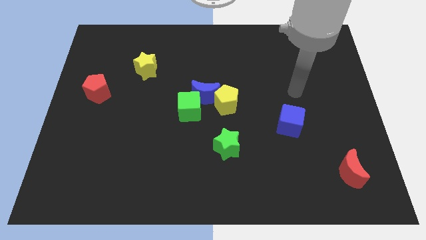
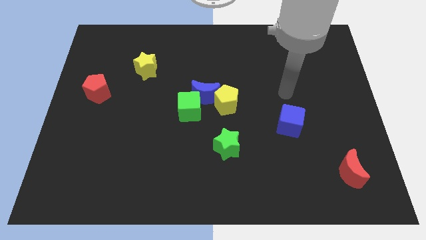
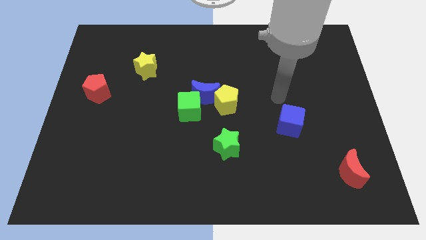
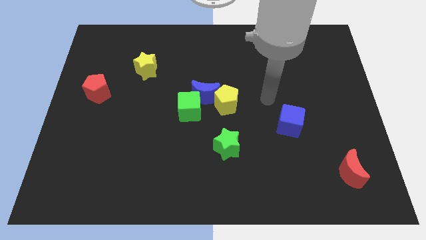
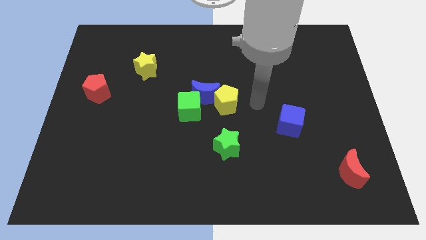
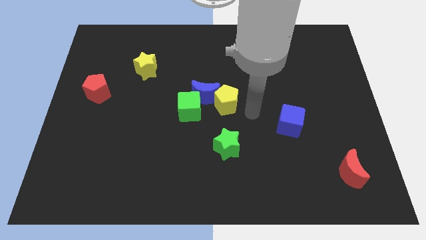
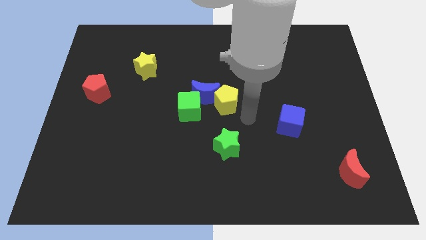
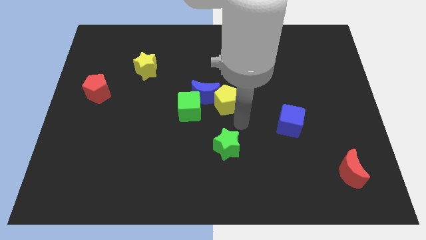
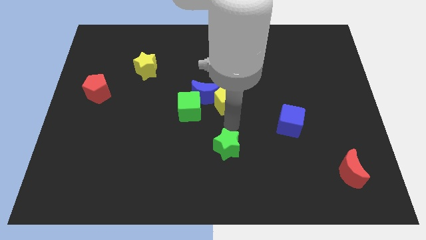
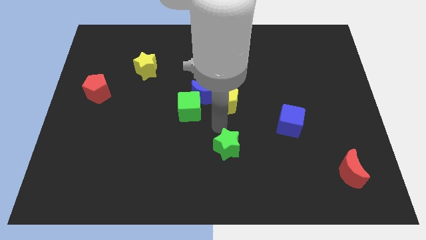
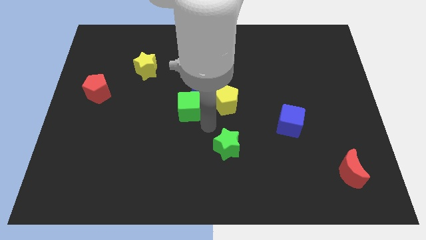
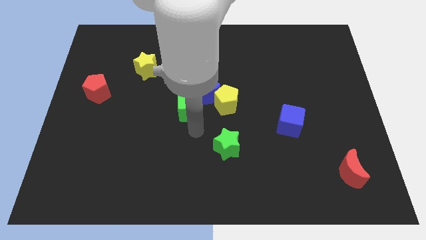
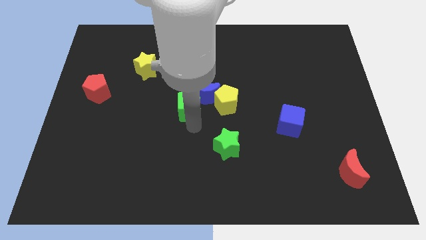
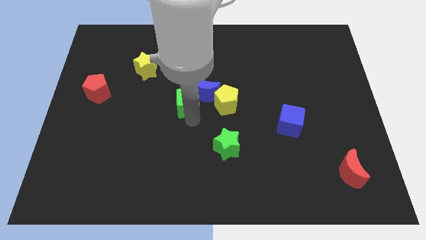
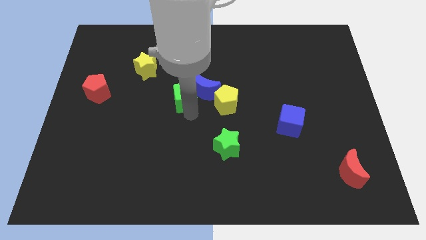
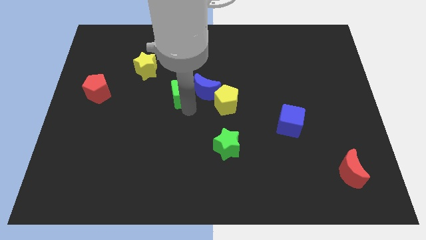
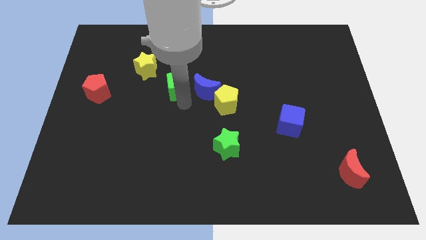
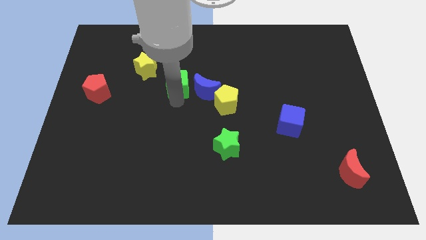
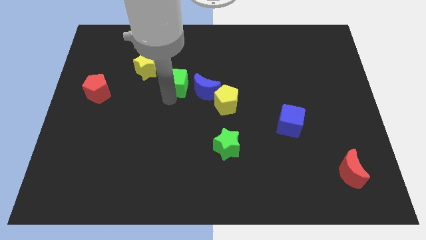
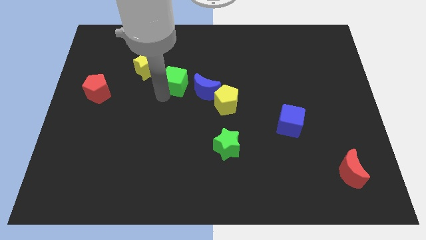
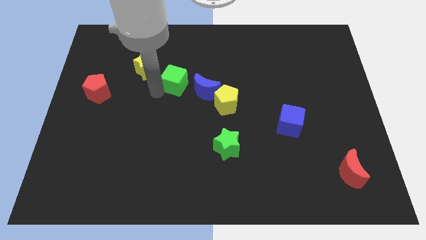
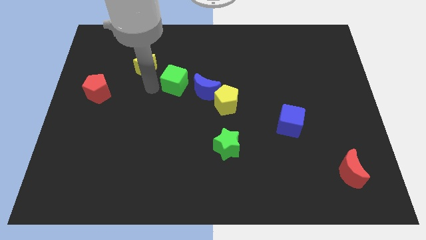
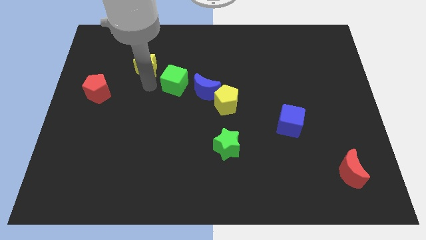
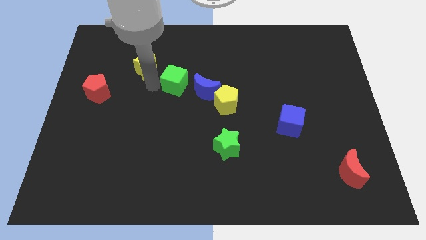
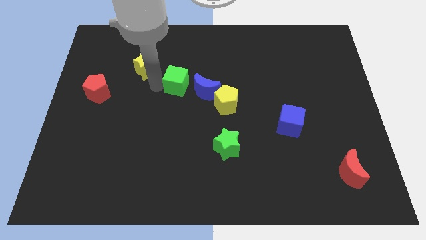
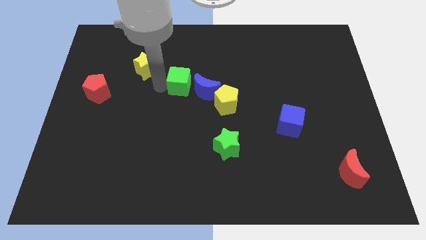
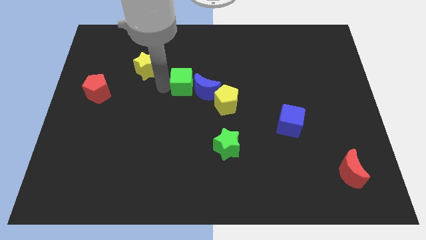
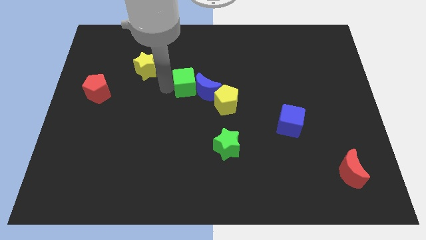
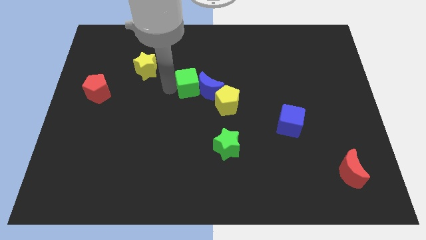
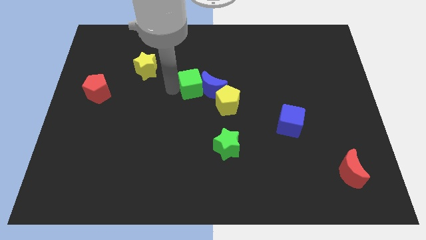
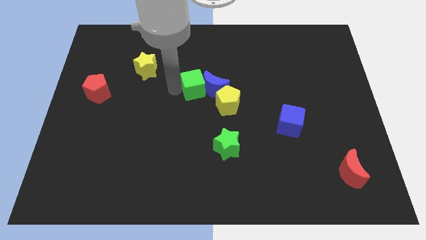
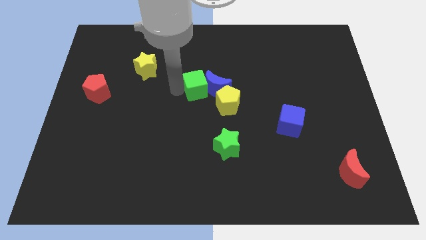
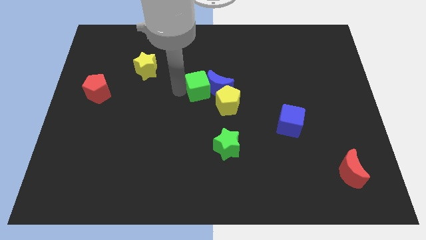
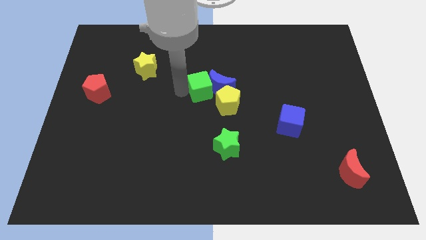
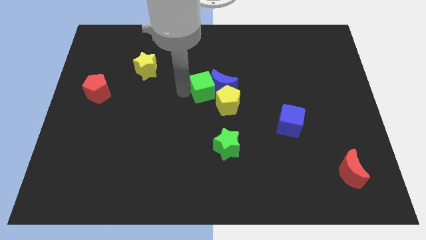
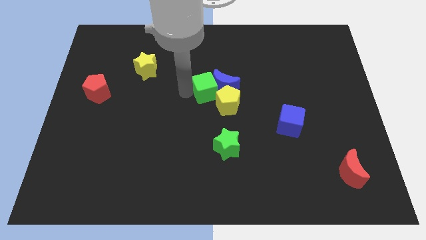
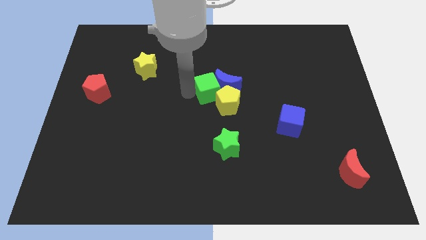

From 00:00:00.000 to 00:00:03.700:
slightly slide the green cube up and right

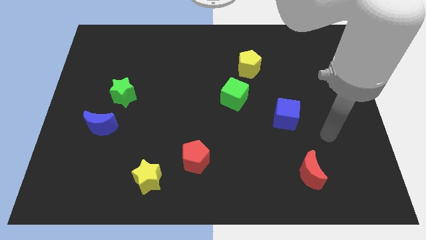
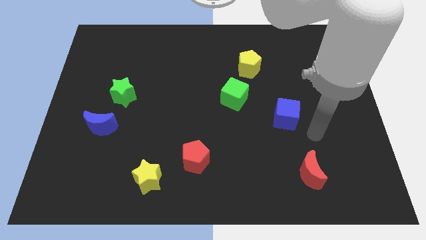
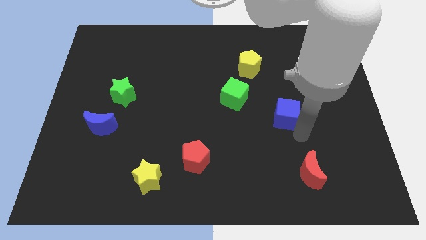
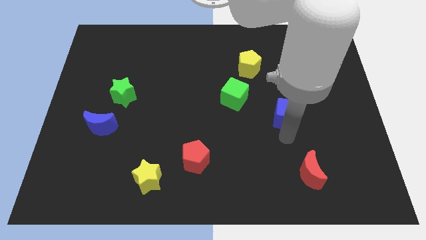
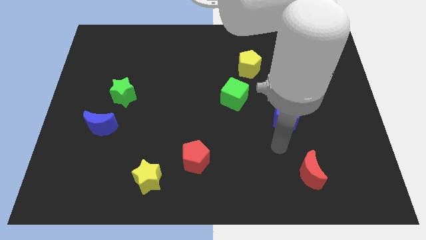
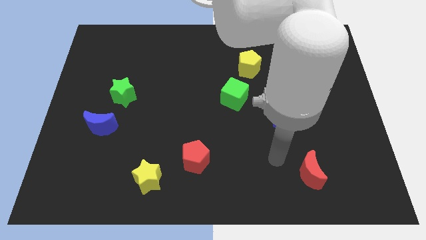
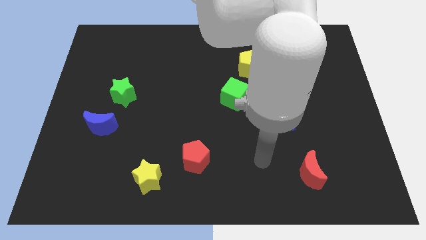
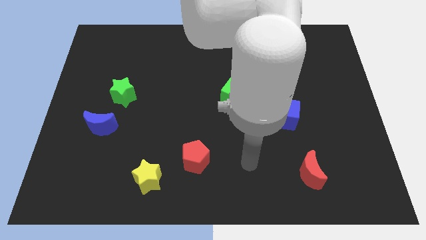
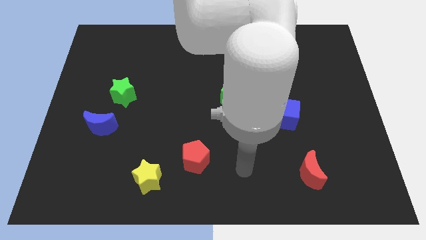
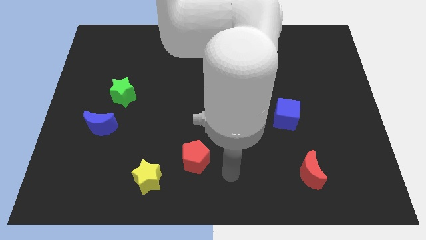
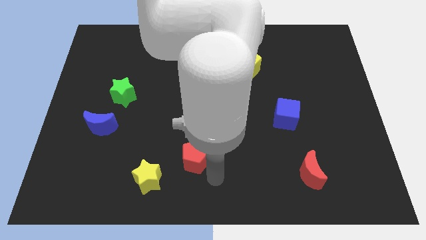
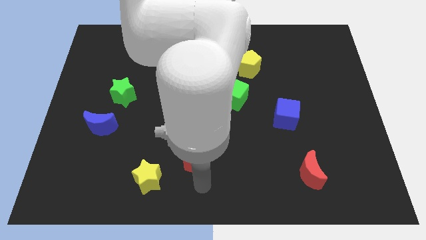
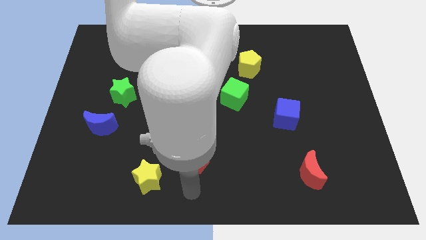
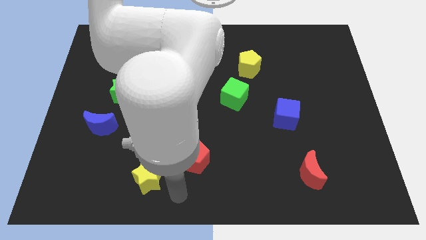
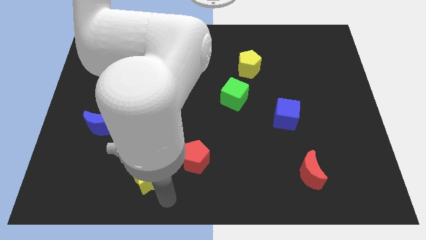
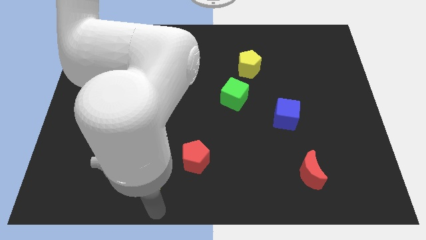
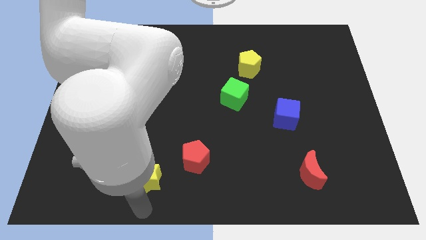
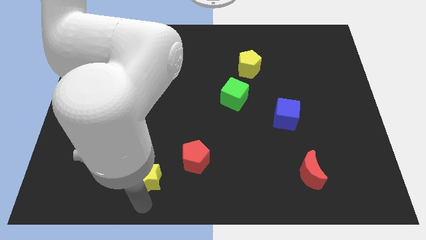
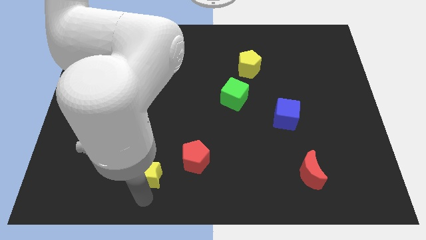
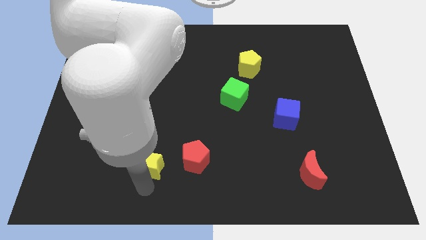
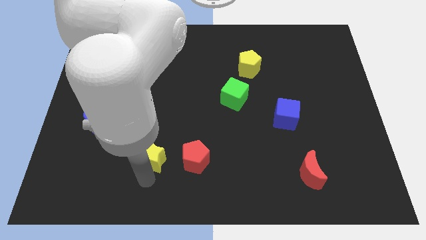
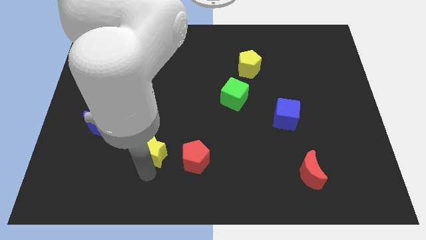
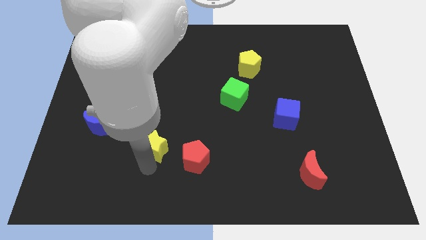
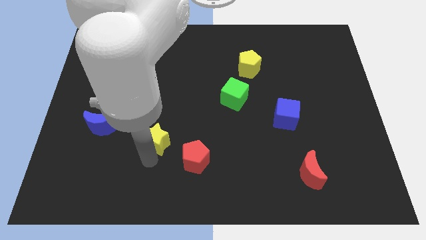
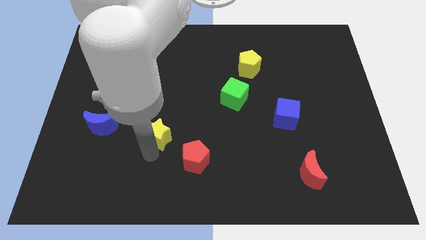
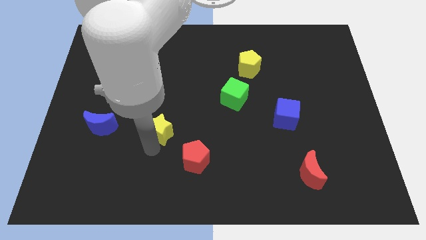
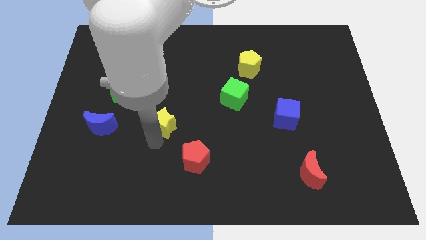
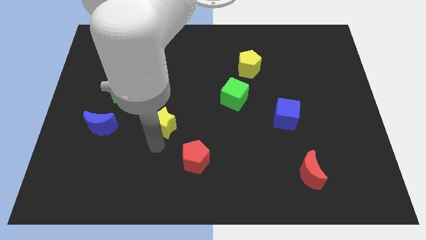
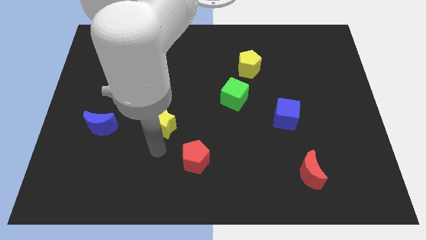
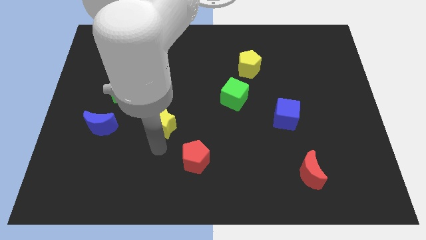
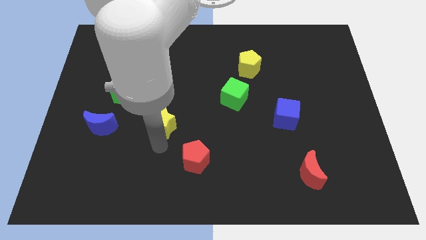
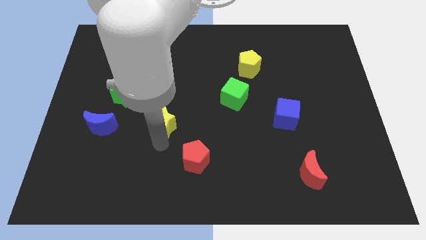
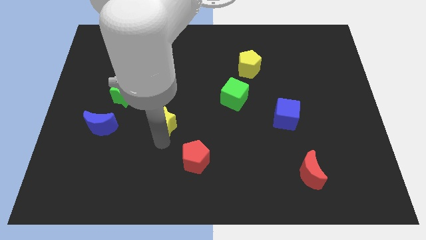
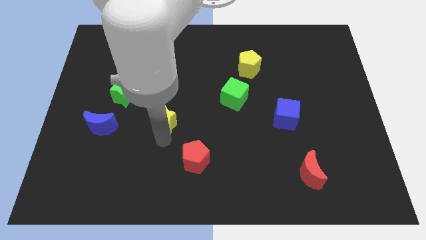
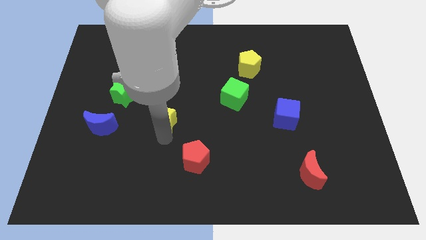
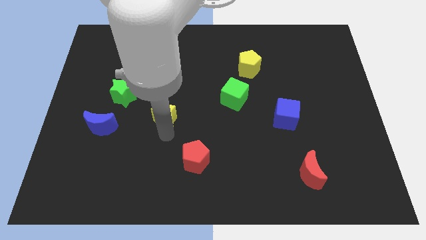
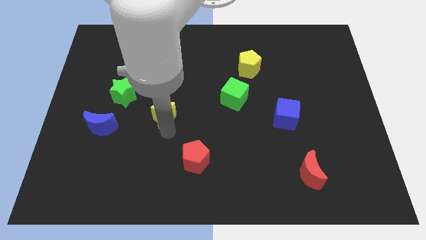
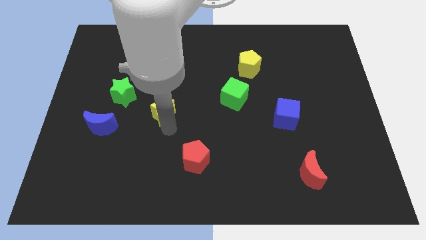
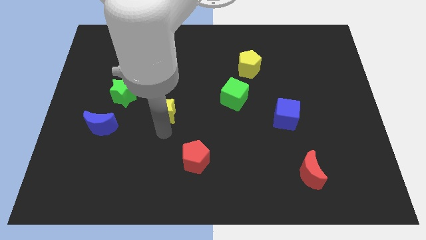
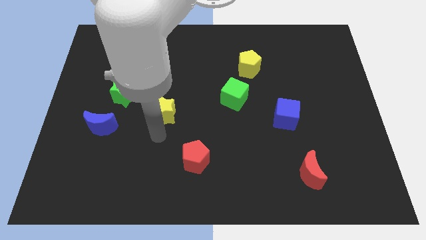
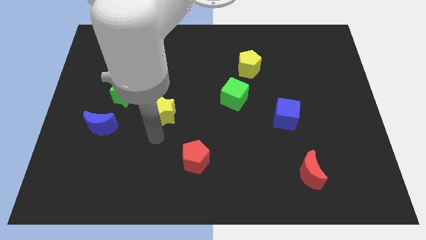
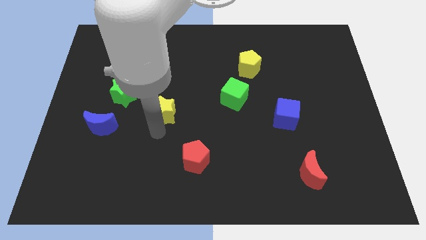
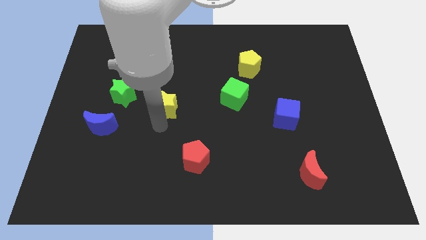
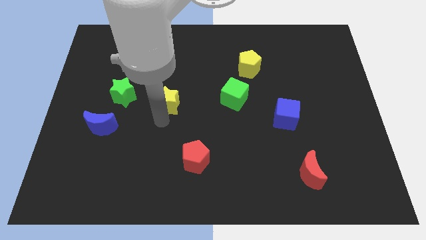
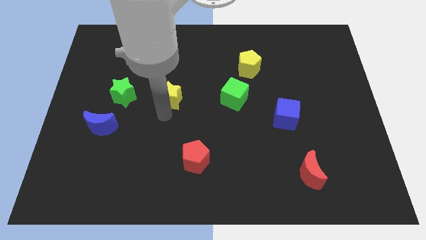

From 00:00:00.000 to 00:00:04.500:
slide the yellow star up
